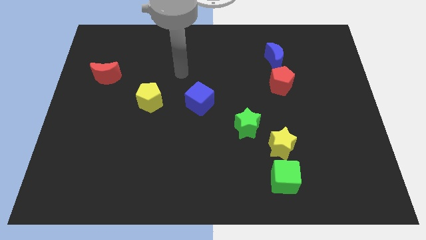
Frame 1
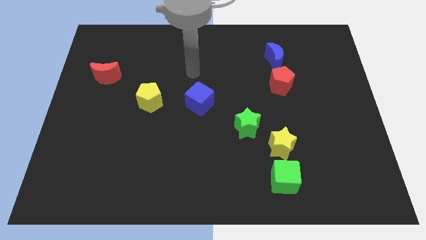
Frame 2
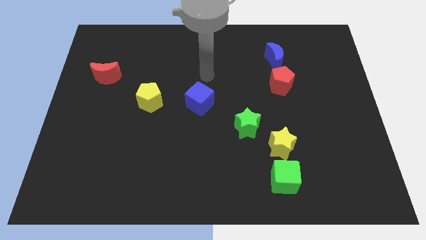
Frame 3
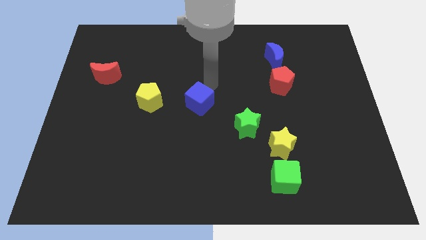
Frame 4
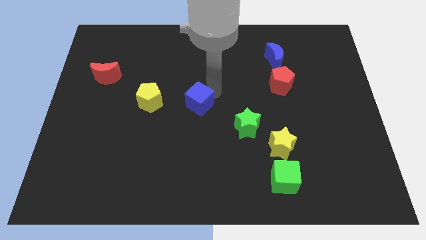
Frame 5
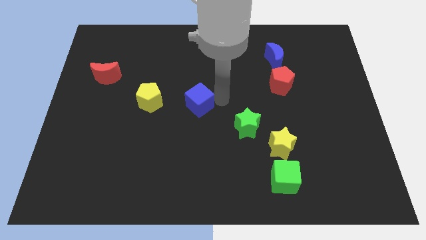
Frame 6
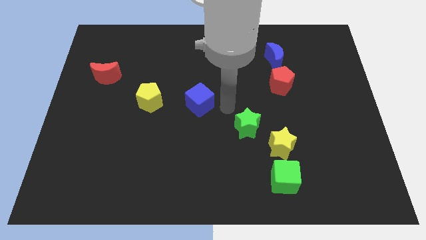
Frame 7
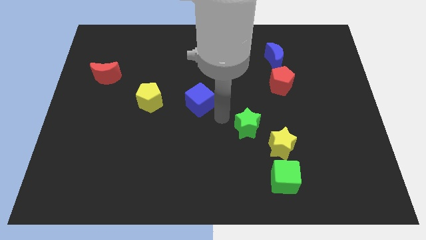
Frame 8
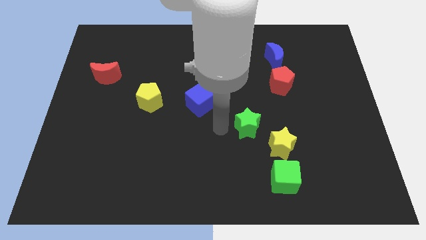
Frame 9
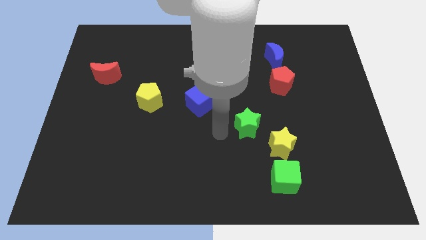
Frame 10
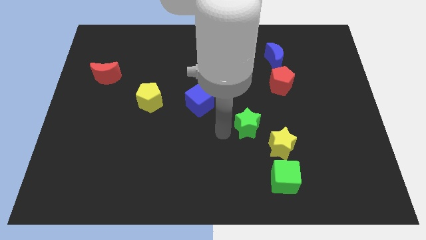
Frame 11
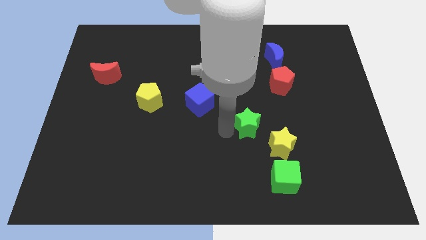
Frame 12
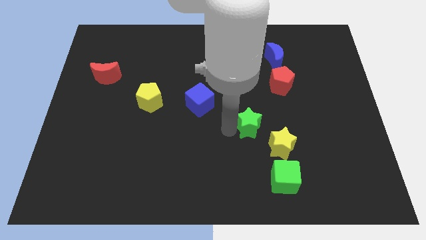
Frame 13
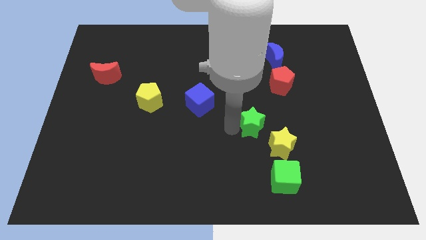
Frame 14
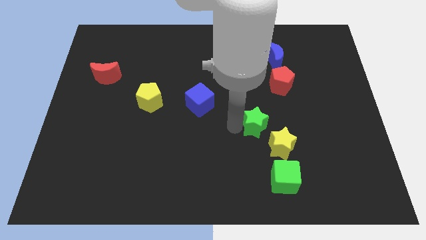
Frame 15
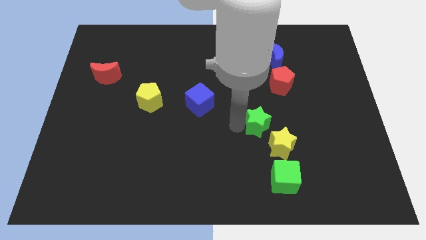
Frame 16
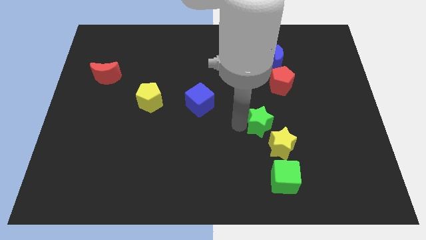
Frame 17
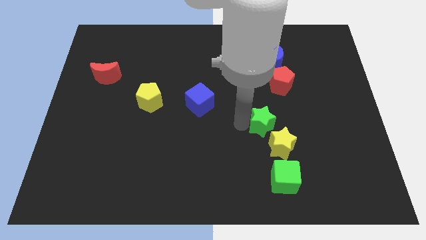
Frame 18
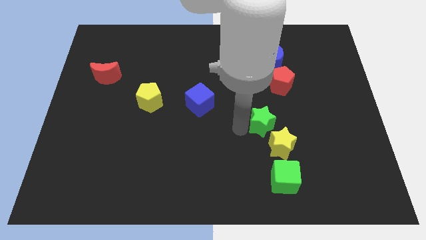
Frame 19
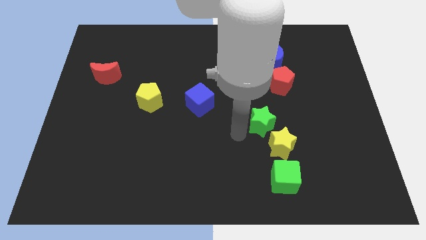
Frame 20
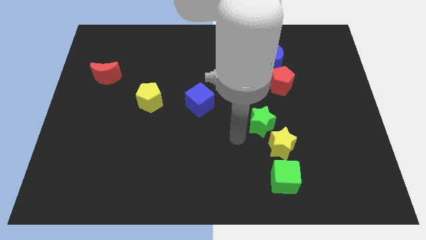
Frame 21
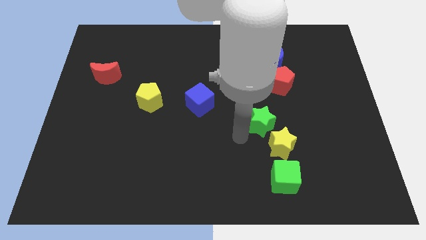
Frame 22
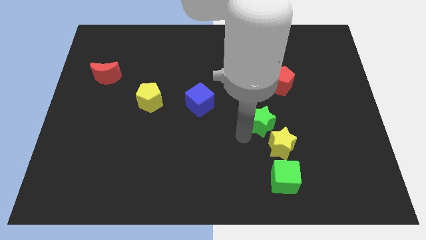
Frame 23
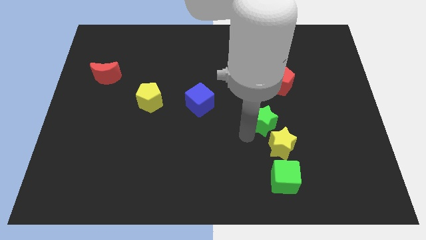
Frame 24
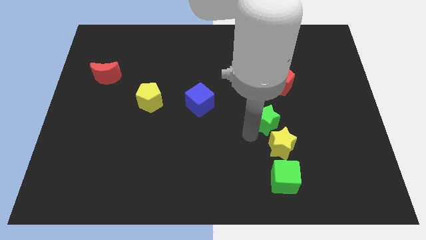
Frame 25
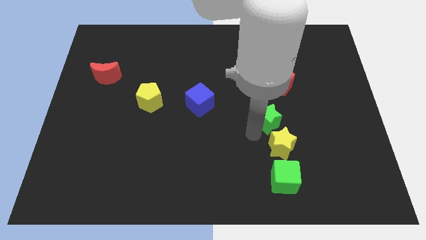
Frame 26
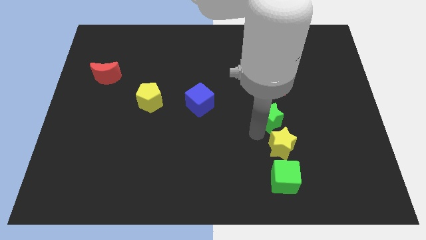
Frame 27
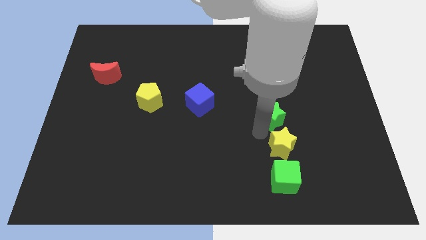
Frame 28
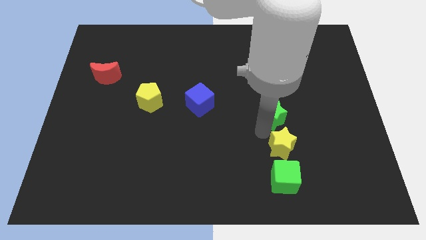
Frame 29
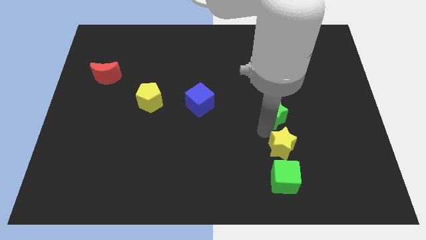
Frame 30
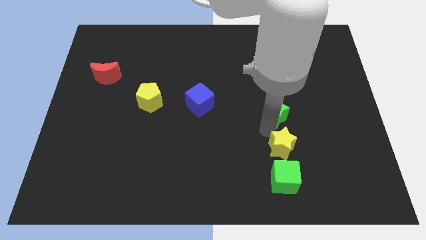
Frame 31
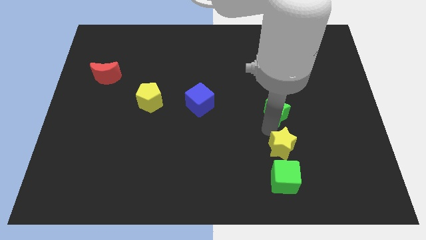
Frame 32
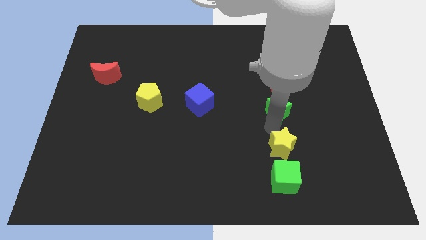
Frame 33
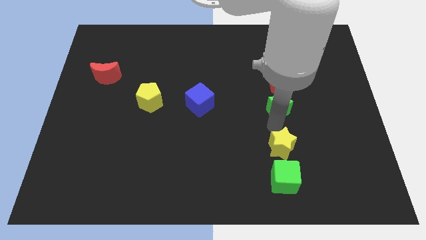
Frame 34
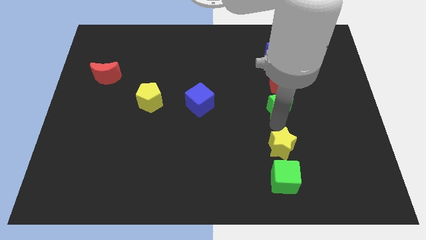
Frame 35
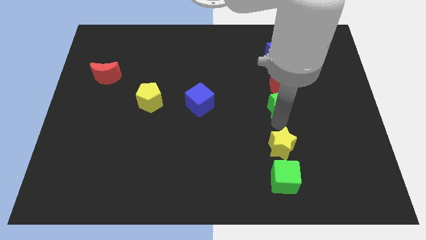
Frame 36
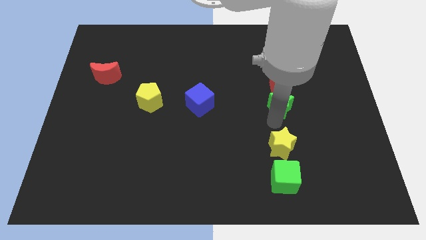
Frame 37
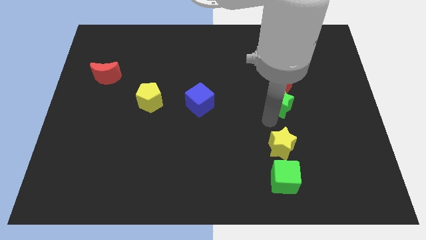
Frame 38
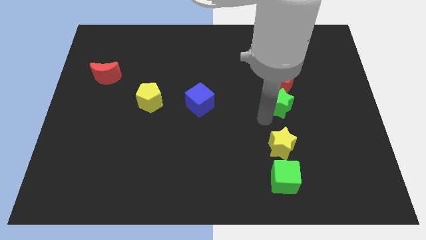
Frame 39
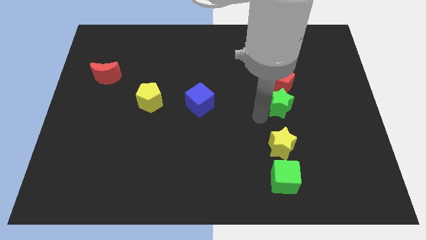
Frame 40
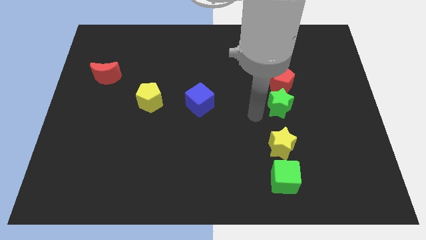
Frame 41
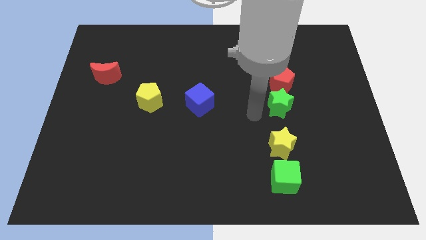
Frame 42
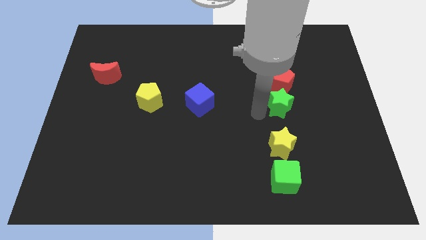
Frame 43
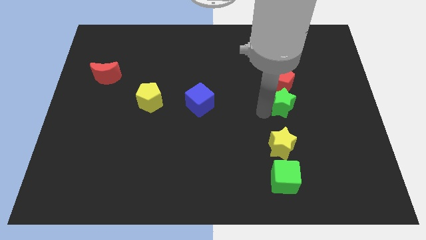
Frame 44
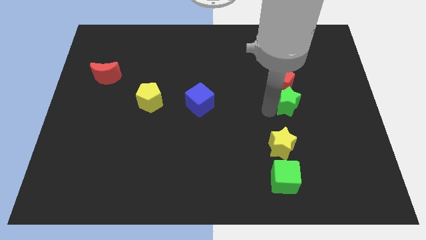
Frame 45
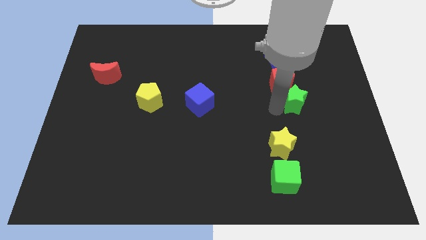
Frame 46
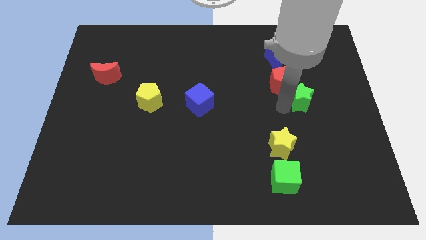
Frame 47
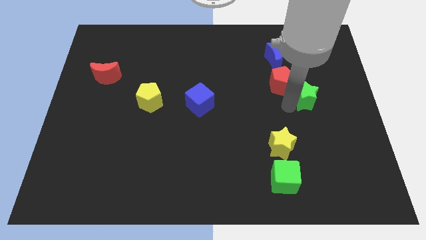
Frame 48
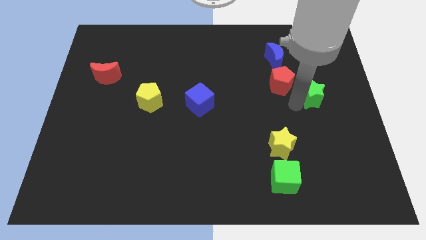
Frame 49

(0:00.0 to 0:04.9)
move the green star to the right of the red pentagon

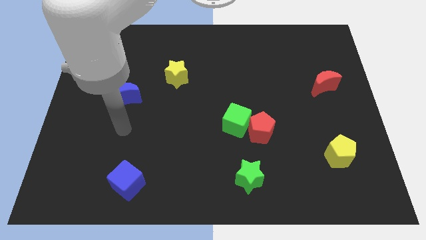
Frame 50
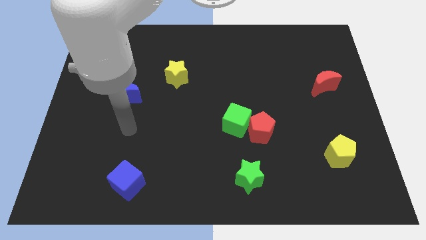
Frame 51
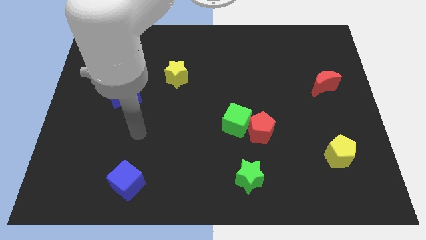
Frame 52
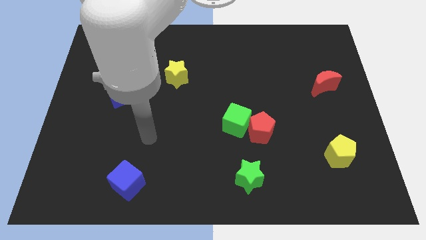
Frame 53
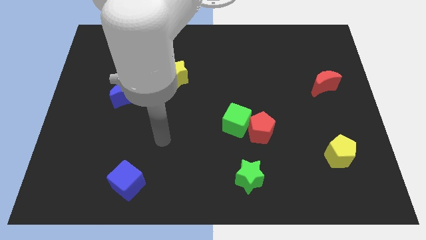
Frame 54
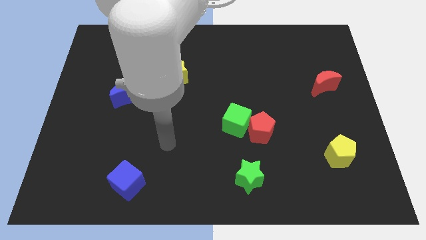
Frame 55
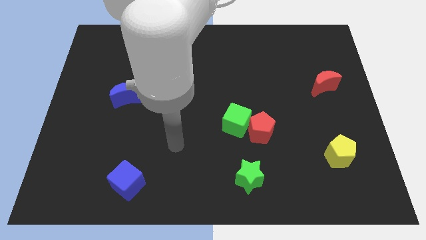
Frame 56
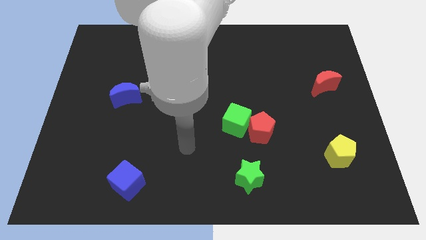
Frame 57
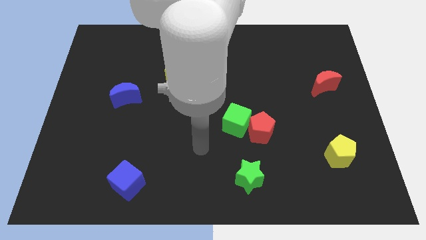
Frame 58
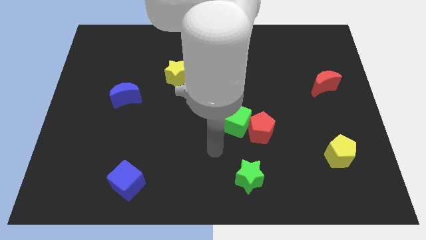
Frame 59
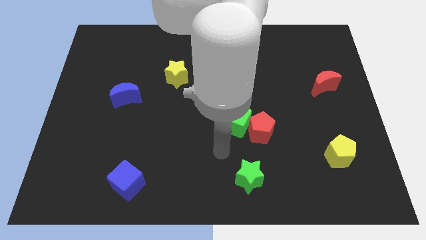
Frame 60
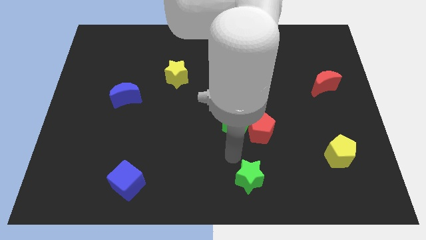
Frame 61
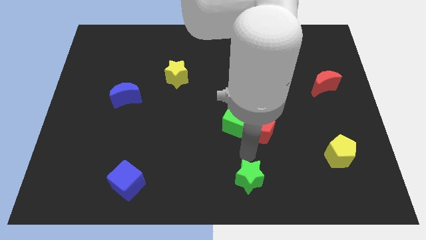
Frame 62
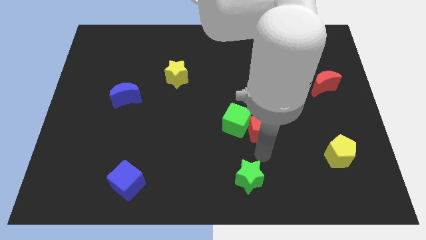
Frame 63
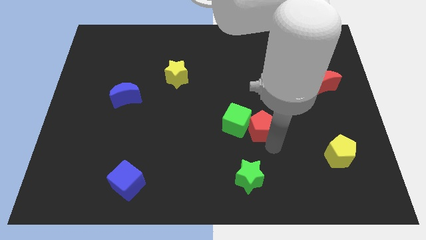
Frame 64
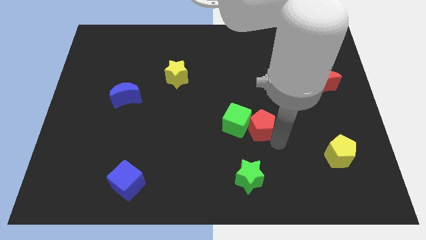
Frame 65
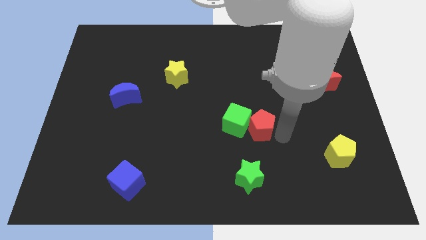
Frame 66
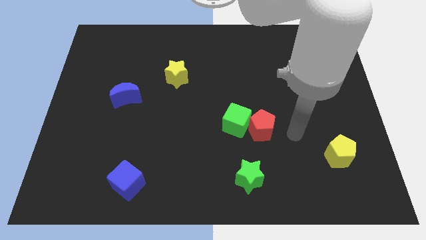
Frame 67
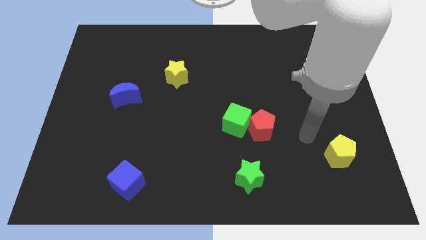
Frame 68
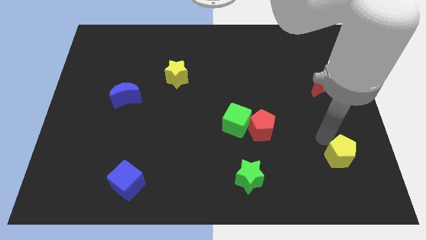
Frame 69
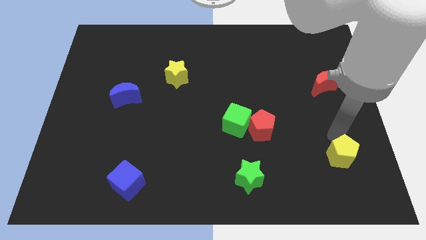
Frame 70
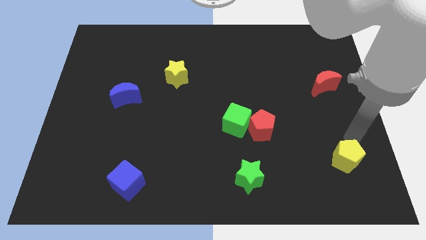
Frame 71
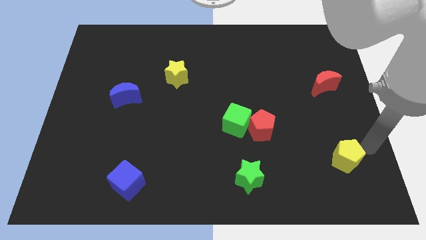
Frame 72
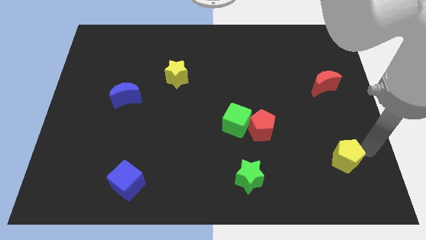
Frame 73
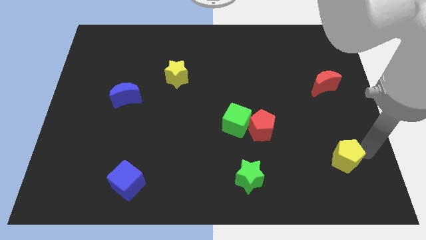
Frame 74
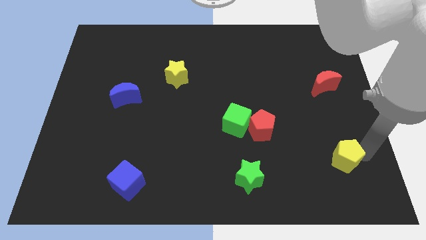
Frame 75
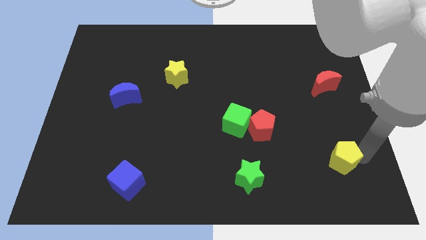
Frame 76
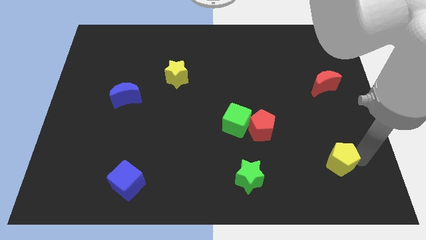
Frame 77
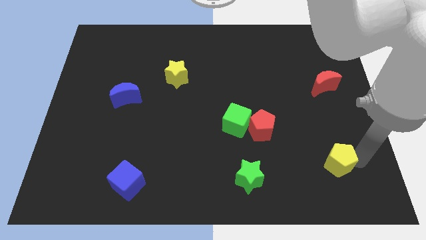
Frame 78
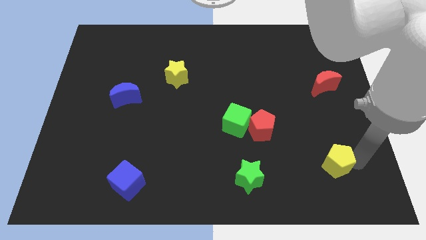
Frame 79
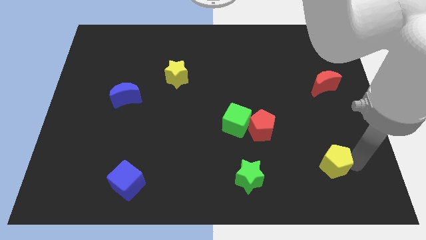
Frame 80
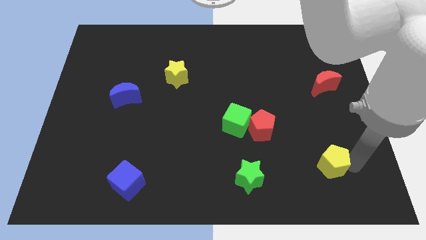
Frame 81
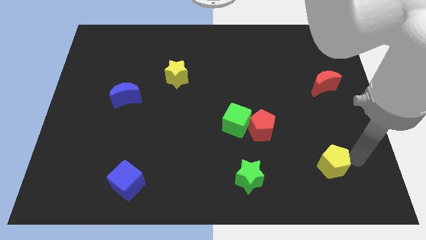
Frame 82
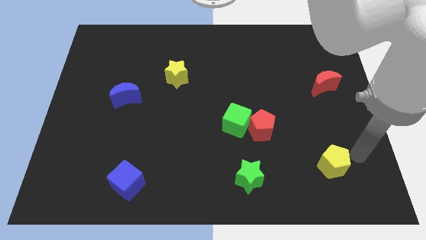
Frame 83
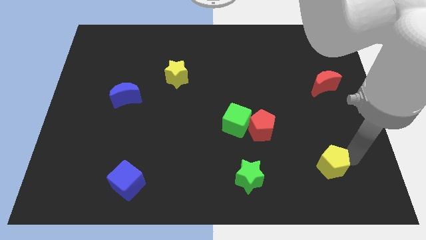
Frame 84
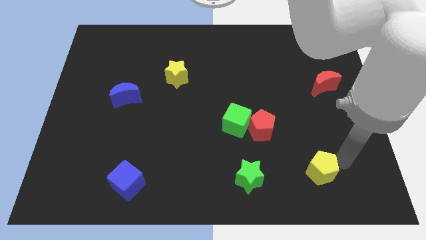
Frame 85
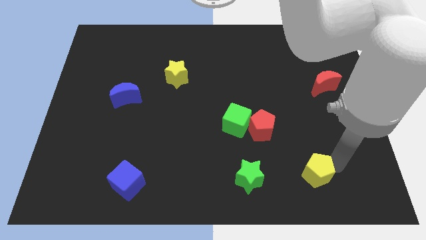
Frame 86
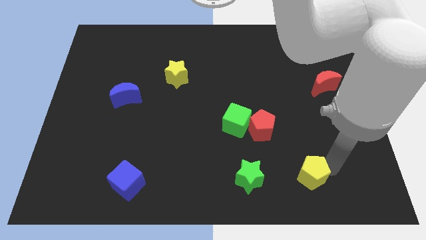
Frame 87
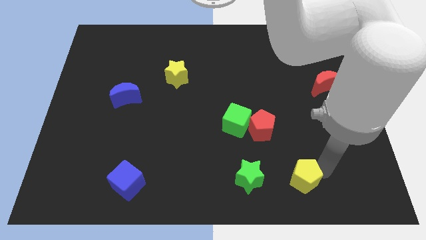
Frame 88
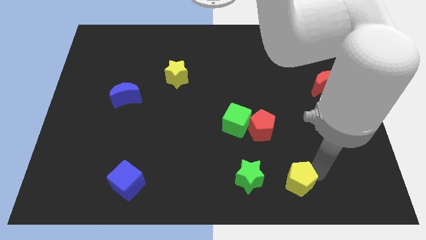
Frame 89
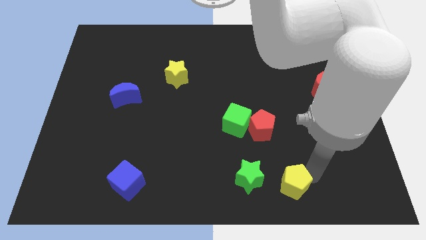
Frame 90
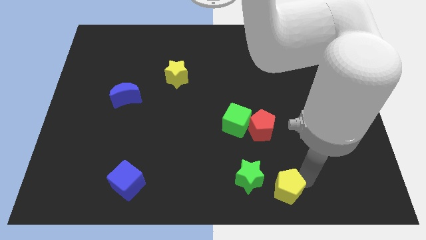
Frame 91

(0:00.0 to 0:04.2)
move the yellow pentagon to the bottom side of the red pentagon
